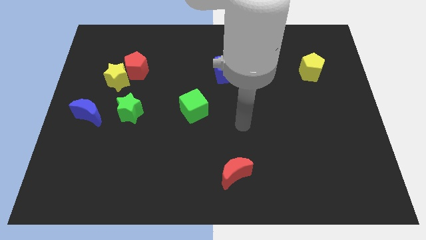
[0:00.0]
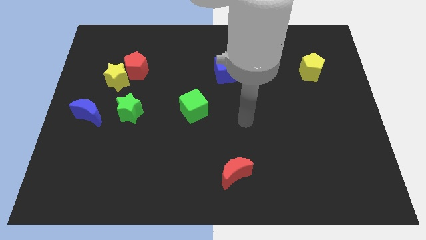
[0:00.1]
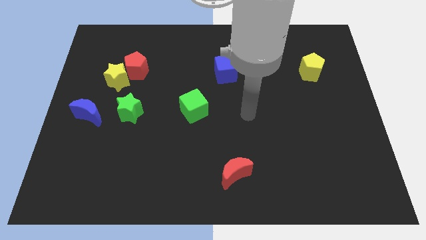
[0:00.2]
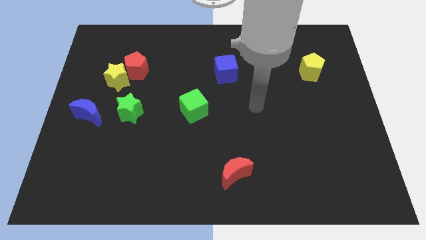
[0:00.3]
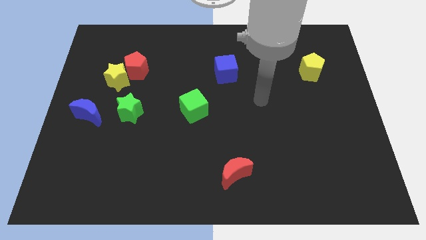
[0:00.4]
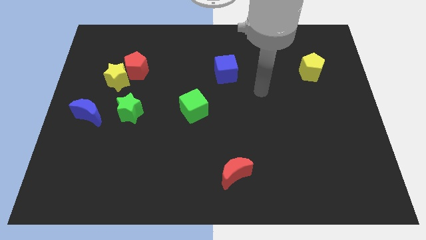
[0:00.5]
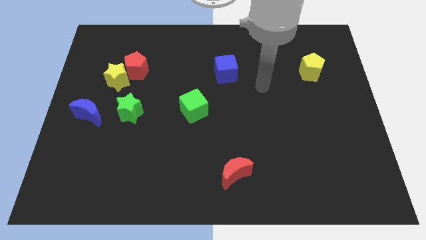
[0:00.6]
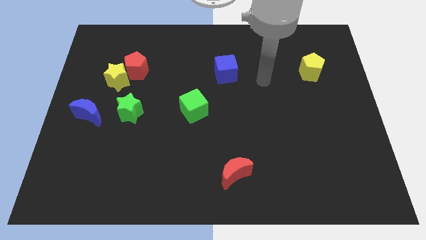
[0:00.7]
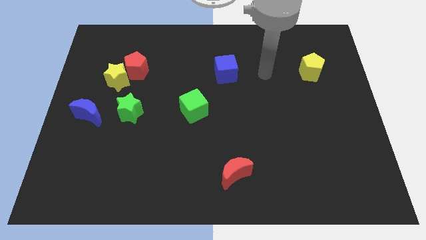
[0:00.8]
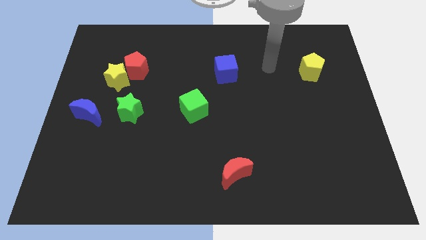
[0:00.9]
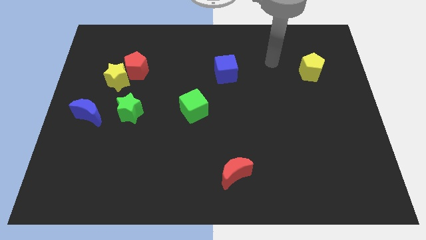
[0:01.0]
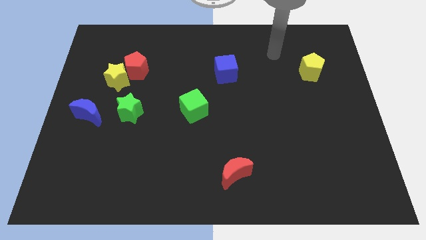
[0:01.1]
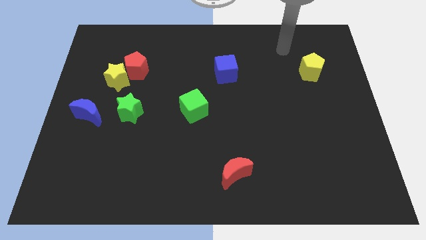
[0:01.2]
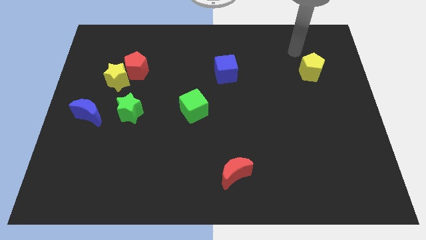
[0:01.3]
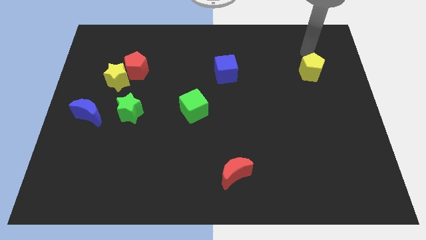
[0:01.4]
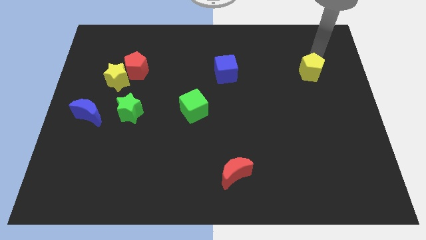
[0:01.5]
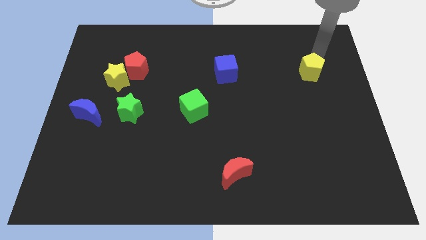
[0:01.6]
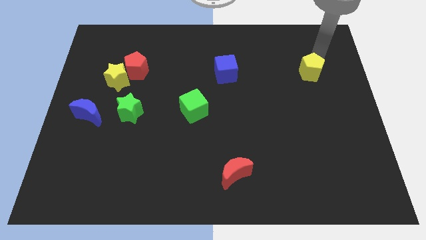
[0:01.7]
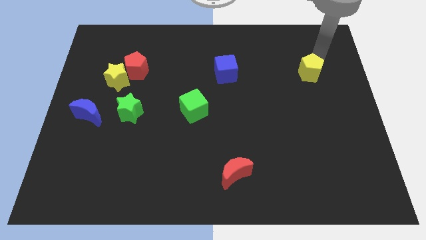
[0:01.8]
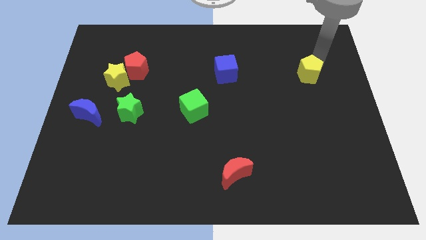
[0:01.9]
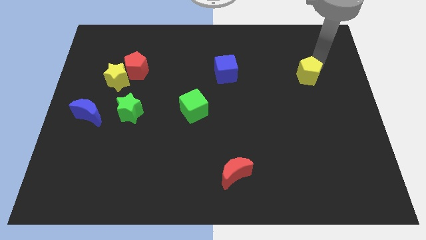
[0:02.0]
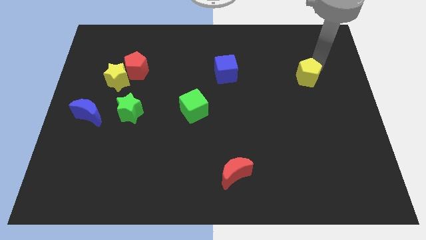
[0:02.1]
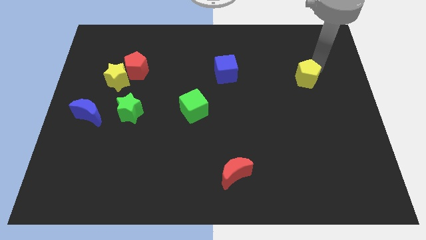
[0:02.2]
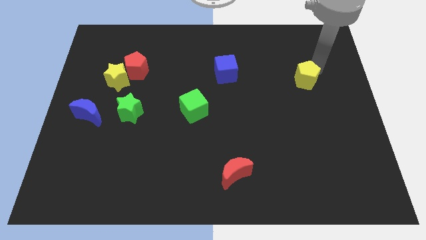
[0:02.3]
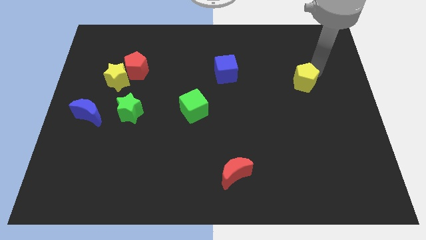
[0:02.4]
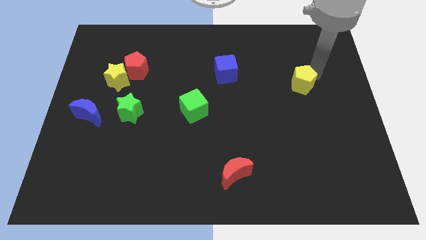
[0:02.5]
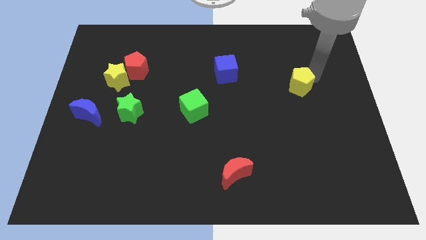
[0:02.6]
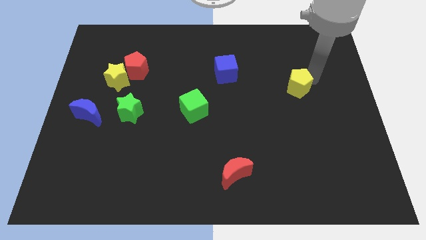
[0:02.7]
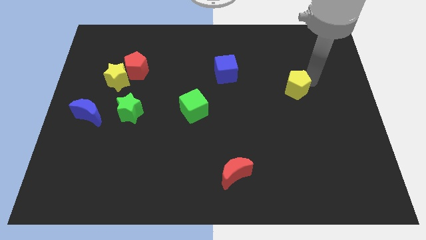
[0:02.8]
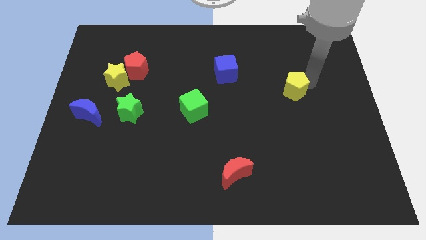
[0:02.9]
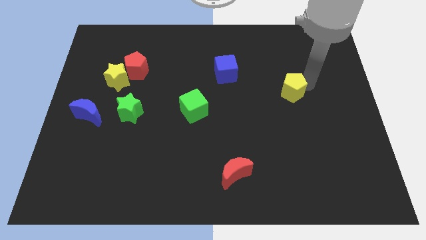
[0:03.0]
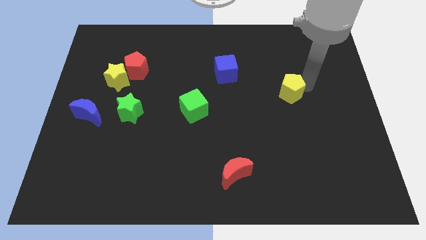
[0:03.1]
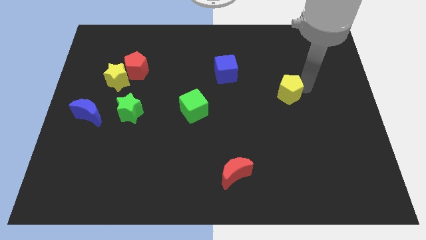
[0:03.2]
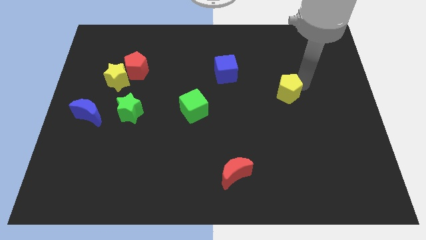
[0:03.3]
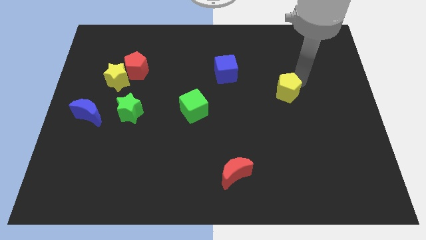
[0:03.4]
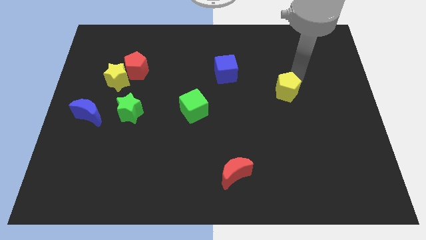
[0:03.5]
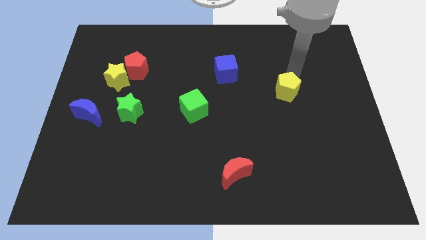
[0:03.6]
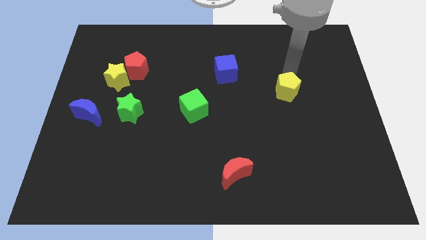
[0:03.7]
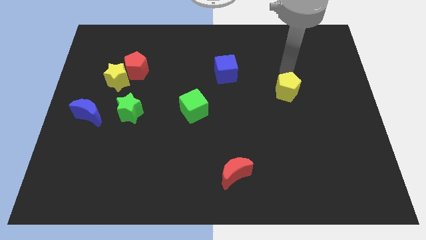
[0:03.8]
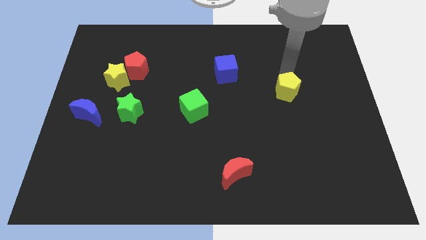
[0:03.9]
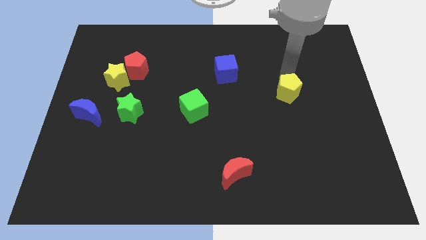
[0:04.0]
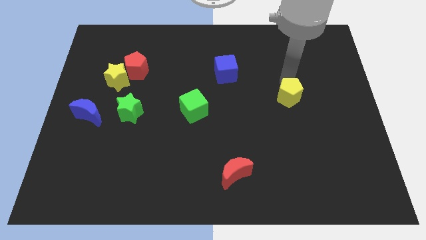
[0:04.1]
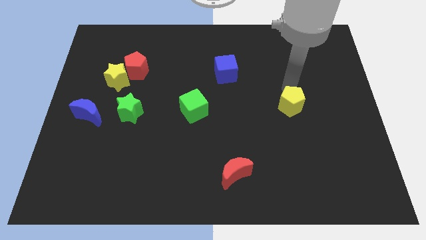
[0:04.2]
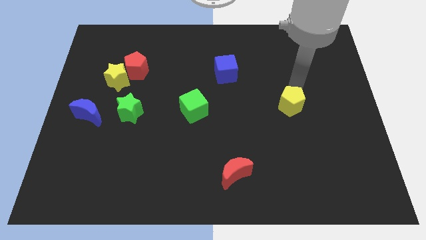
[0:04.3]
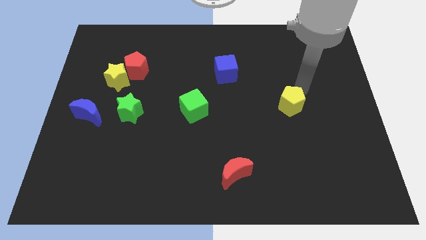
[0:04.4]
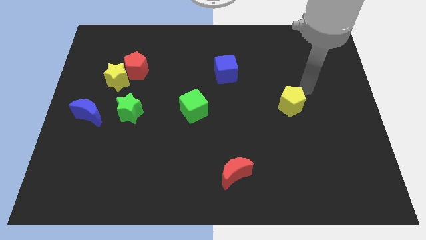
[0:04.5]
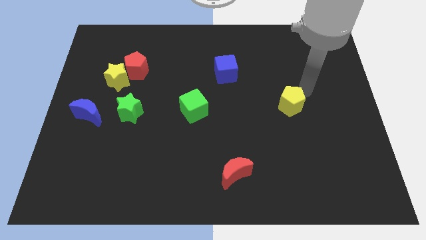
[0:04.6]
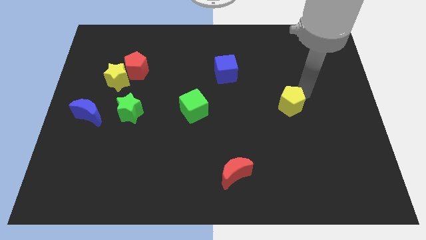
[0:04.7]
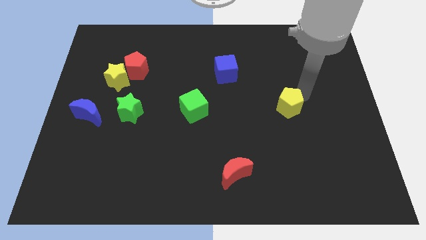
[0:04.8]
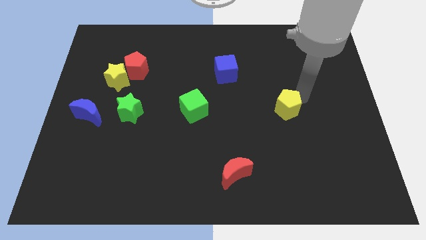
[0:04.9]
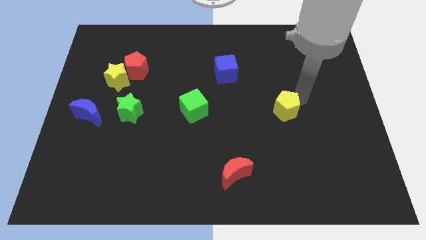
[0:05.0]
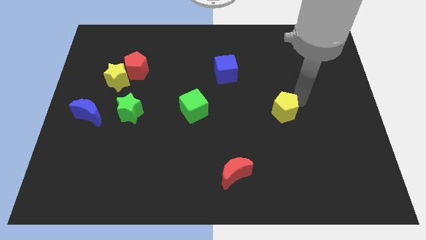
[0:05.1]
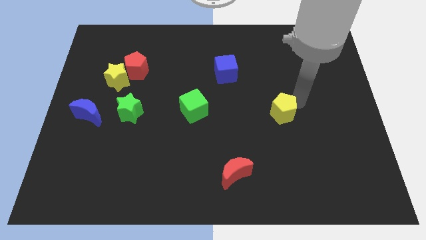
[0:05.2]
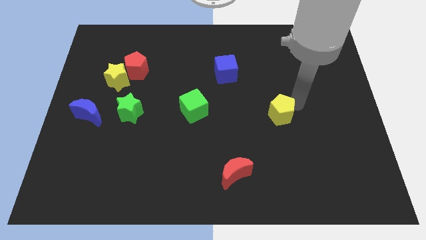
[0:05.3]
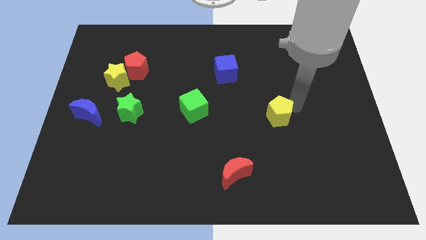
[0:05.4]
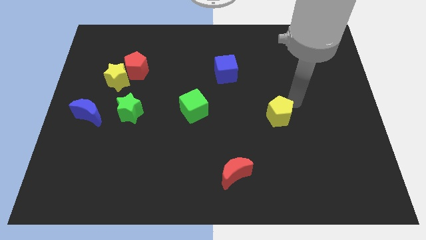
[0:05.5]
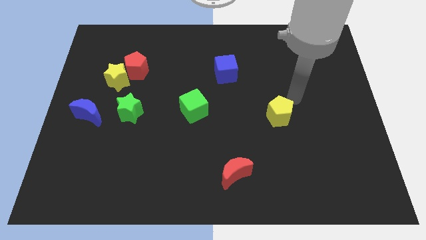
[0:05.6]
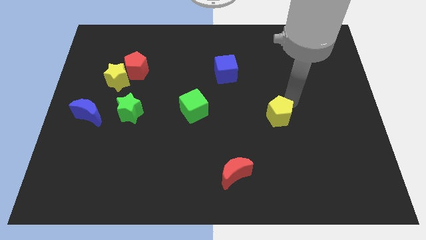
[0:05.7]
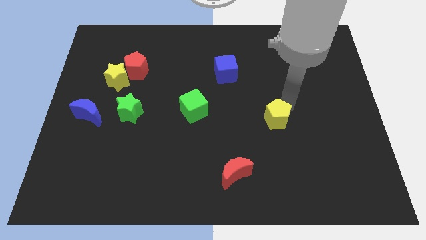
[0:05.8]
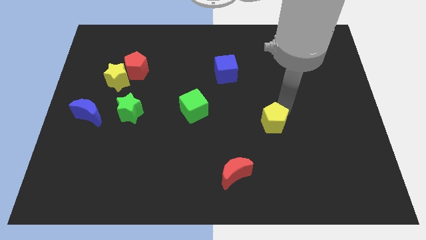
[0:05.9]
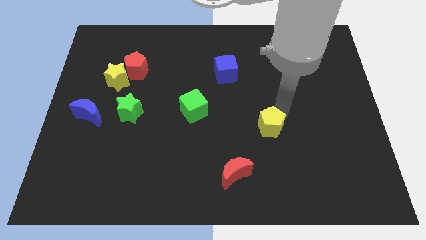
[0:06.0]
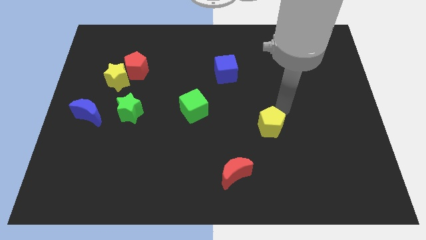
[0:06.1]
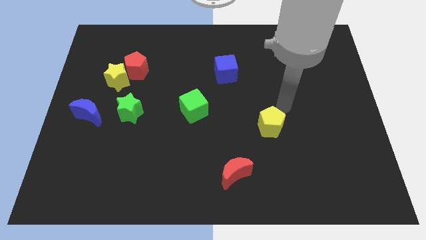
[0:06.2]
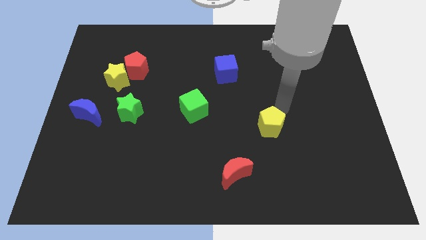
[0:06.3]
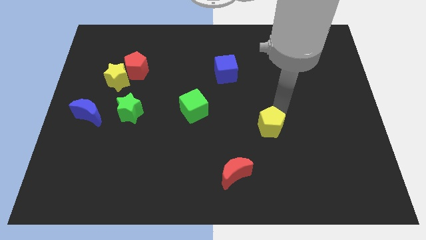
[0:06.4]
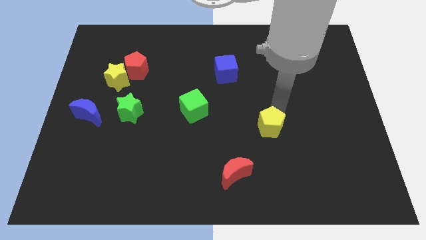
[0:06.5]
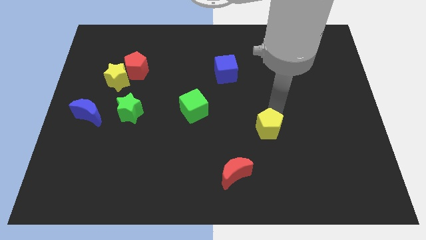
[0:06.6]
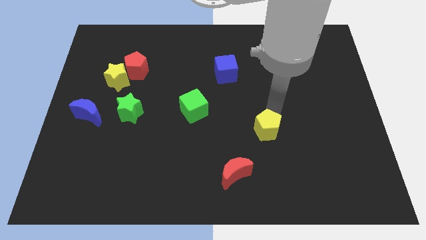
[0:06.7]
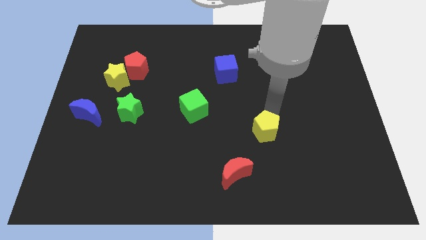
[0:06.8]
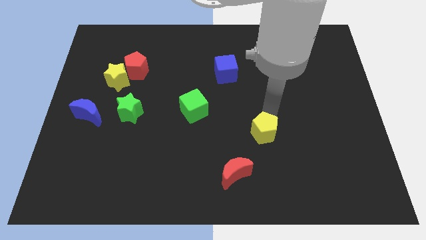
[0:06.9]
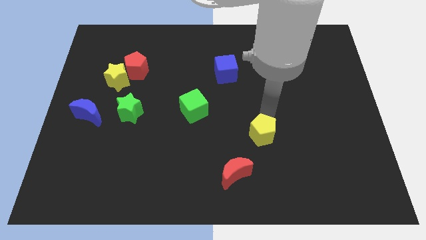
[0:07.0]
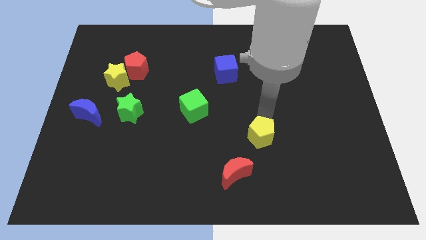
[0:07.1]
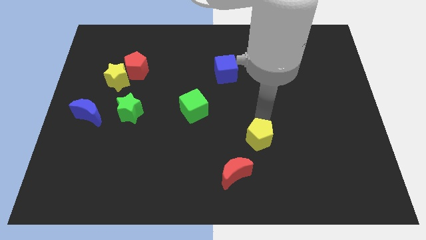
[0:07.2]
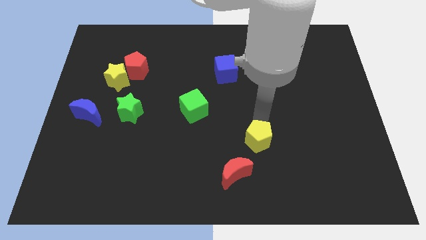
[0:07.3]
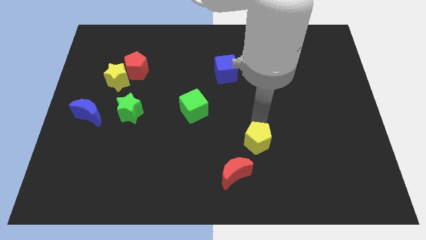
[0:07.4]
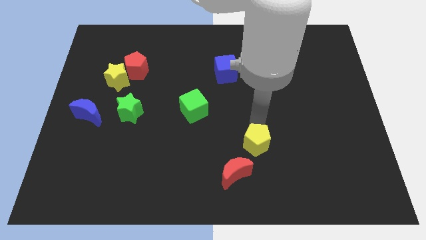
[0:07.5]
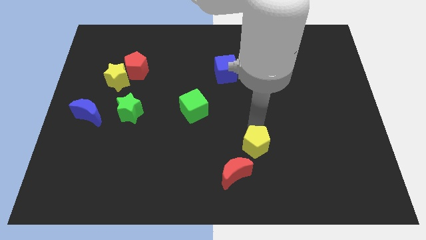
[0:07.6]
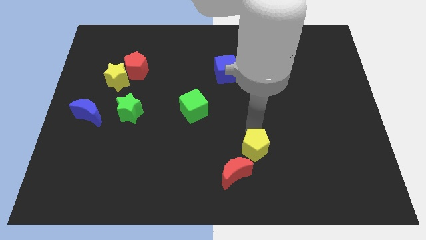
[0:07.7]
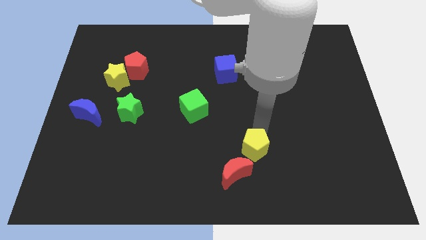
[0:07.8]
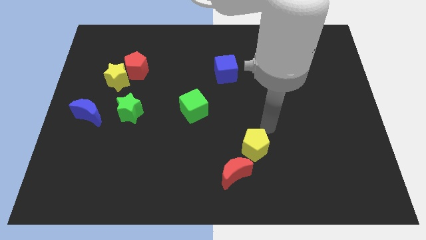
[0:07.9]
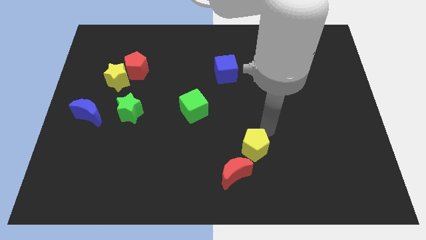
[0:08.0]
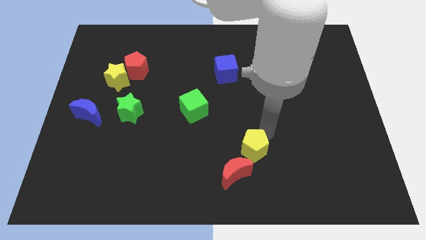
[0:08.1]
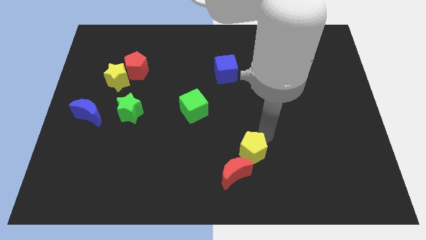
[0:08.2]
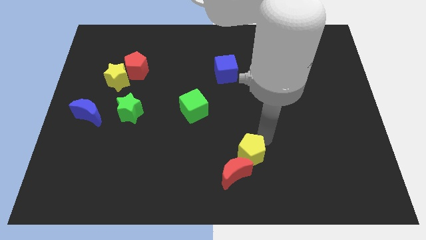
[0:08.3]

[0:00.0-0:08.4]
put the yellow pentagon close to the red moon
